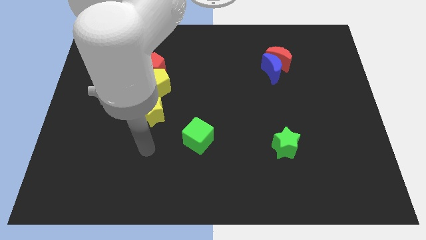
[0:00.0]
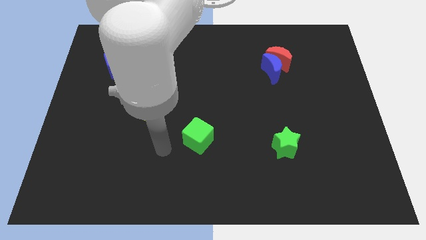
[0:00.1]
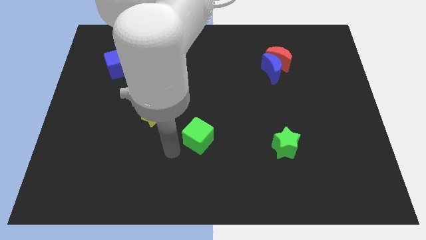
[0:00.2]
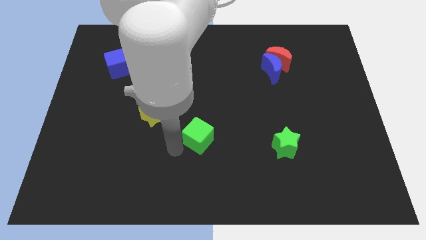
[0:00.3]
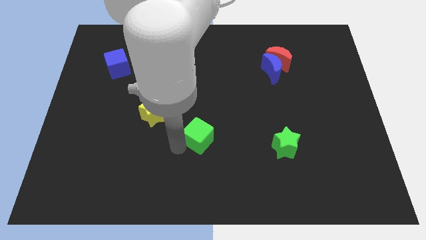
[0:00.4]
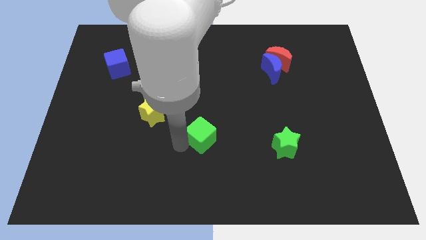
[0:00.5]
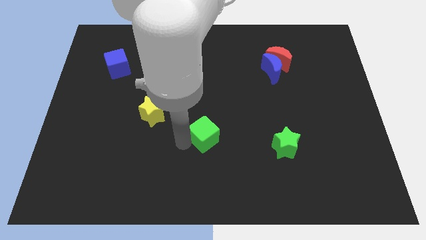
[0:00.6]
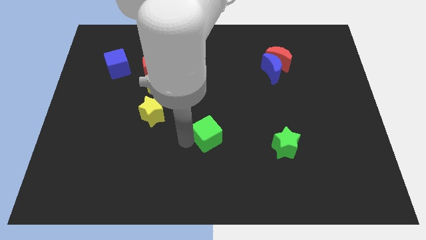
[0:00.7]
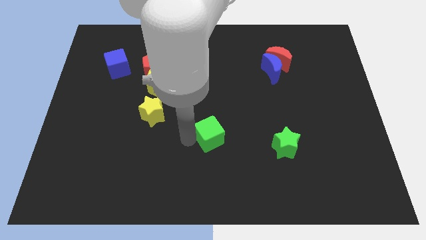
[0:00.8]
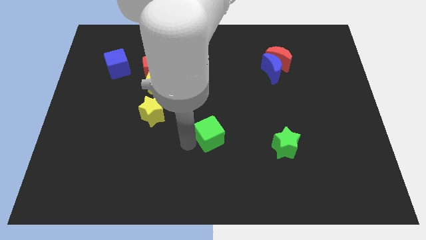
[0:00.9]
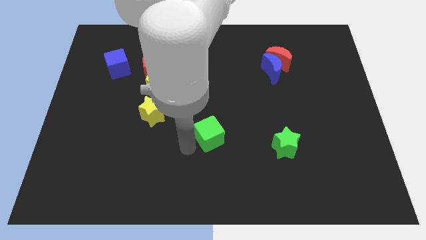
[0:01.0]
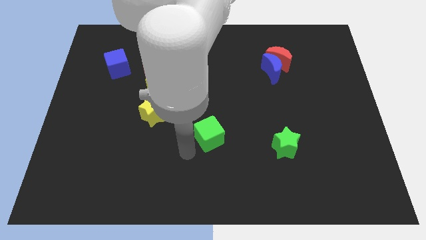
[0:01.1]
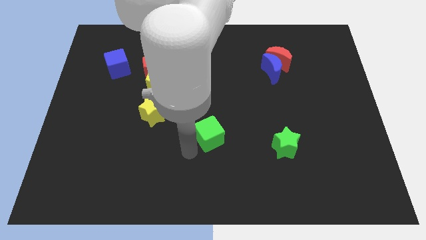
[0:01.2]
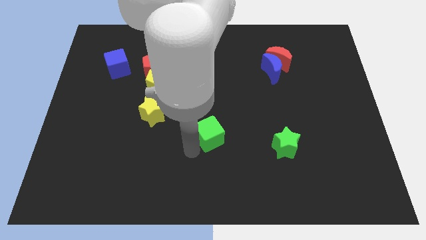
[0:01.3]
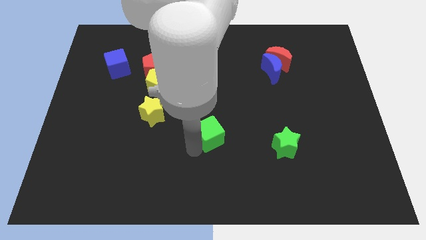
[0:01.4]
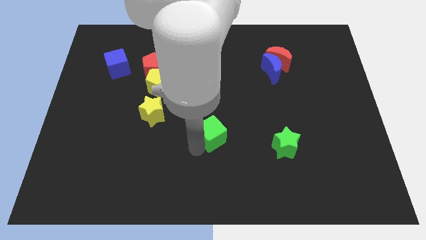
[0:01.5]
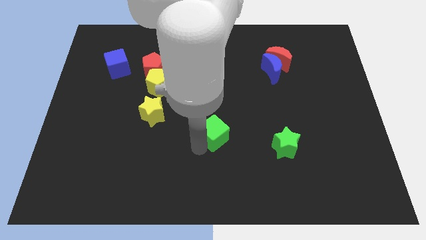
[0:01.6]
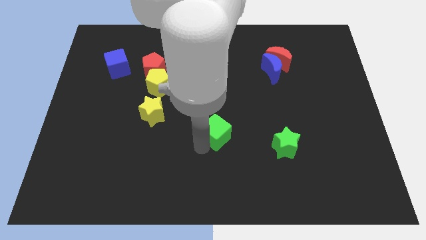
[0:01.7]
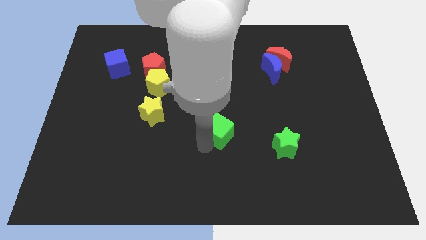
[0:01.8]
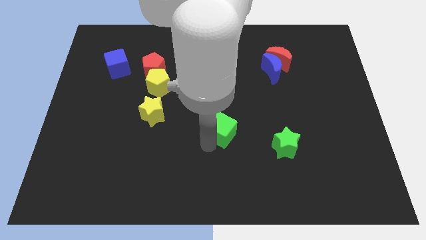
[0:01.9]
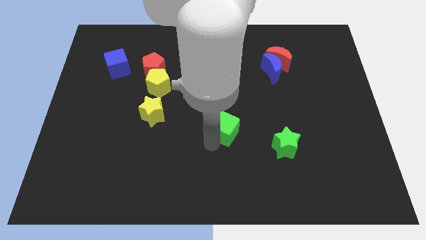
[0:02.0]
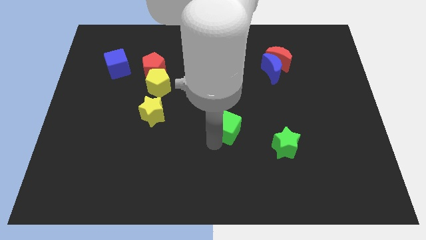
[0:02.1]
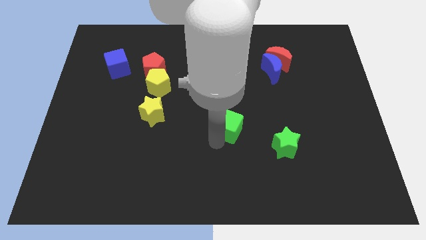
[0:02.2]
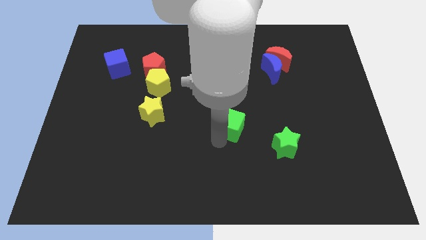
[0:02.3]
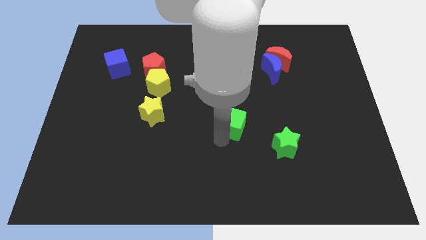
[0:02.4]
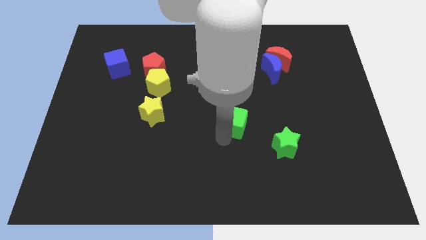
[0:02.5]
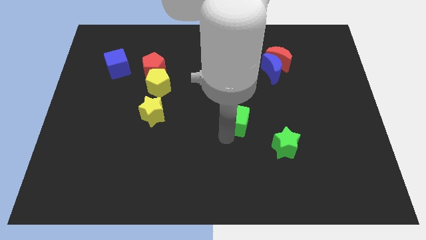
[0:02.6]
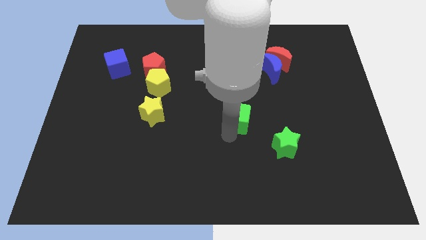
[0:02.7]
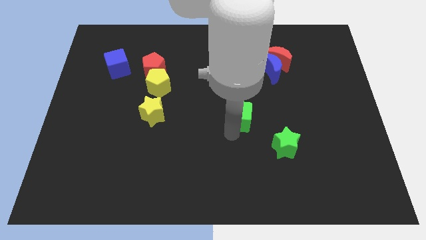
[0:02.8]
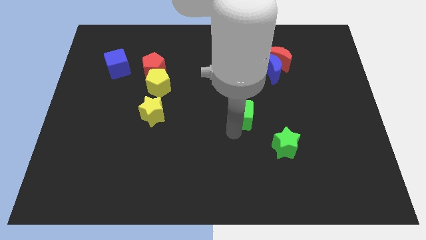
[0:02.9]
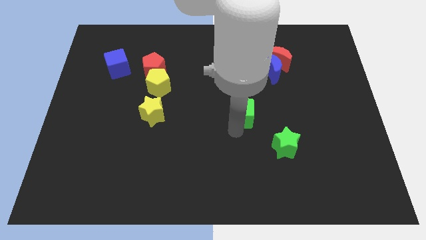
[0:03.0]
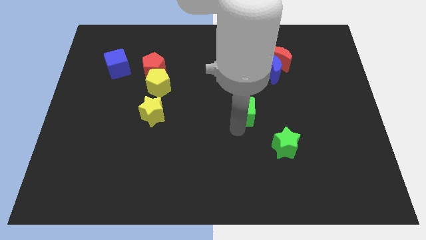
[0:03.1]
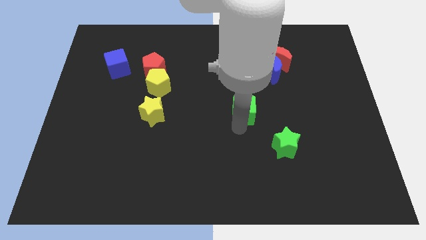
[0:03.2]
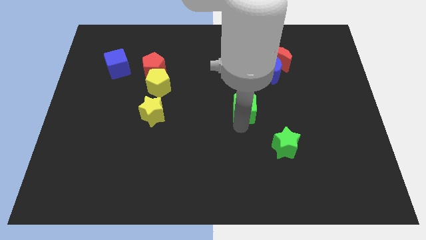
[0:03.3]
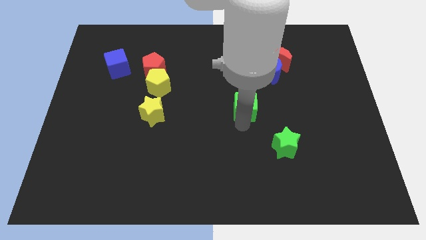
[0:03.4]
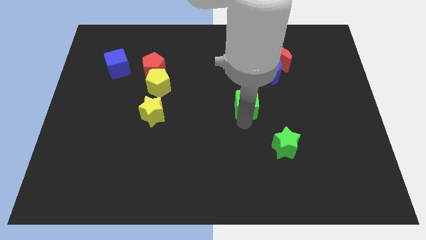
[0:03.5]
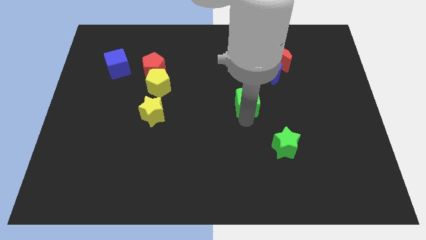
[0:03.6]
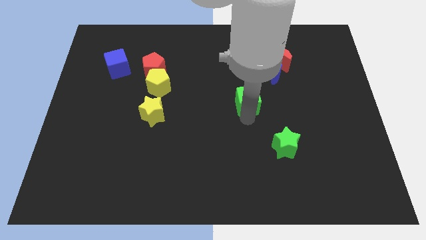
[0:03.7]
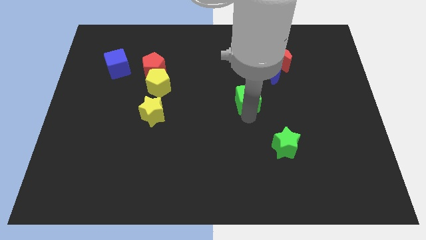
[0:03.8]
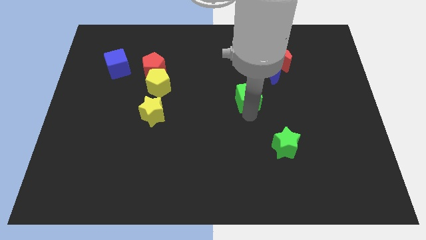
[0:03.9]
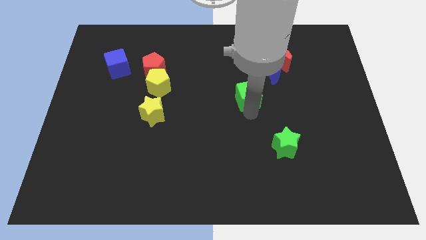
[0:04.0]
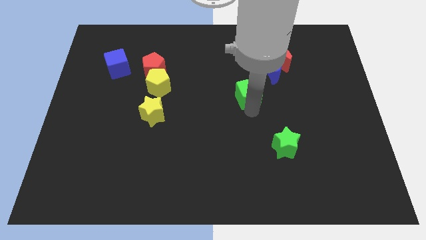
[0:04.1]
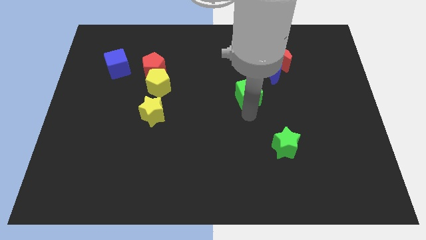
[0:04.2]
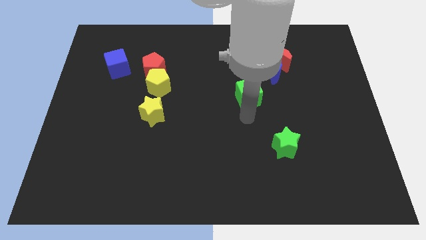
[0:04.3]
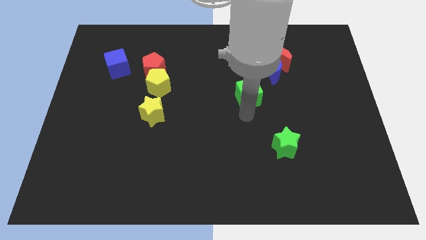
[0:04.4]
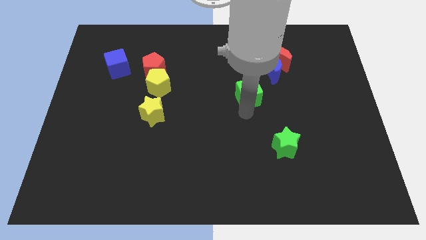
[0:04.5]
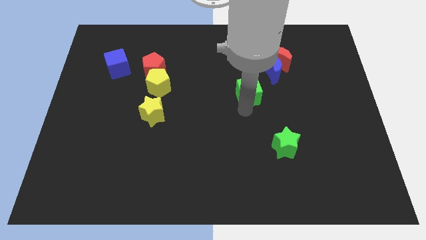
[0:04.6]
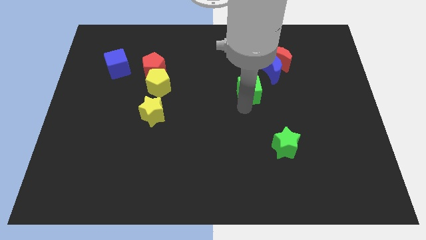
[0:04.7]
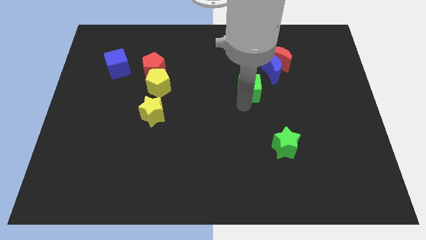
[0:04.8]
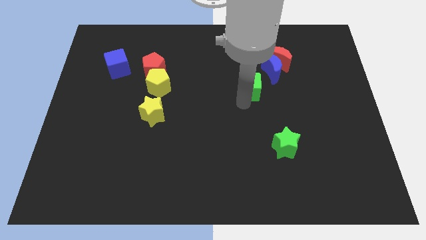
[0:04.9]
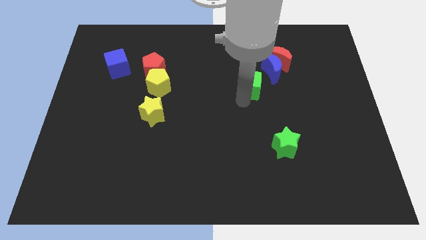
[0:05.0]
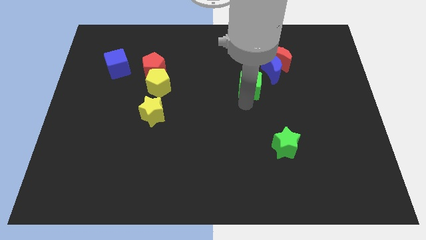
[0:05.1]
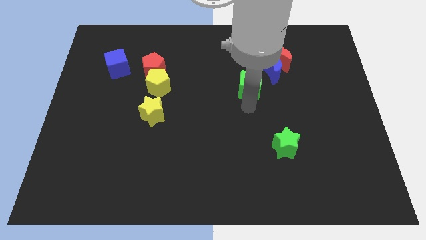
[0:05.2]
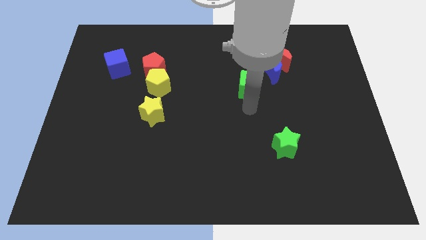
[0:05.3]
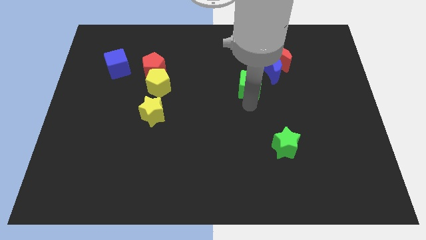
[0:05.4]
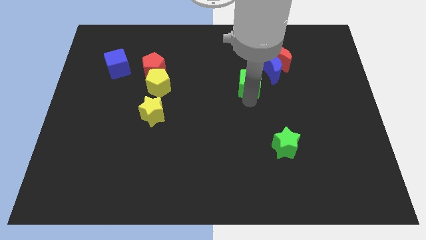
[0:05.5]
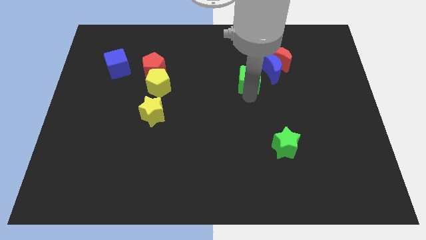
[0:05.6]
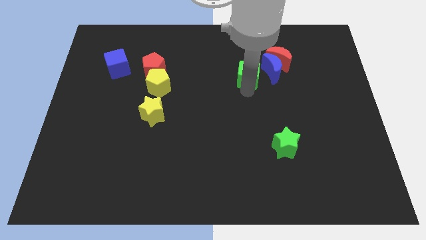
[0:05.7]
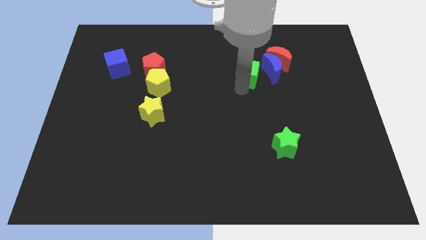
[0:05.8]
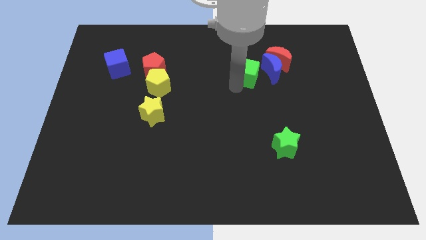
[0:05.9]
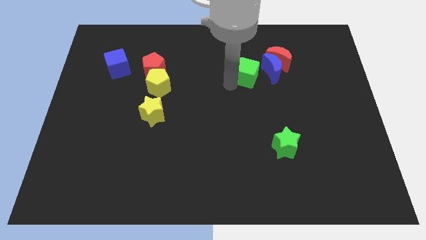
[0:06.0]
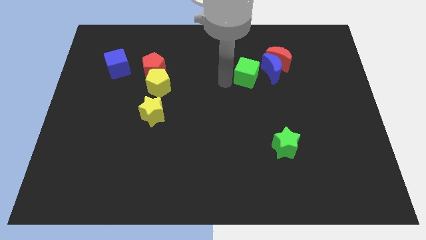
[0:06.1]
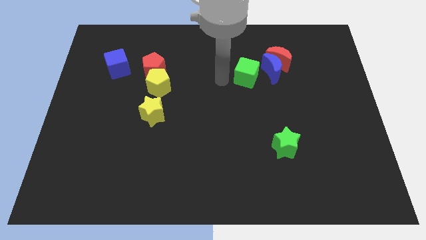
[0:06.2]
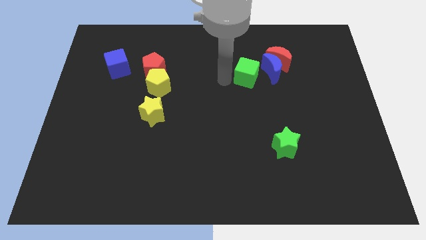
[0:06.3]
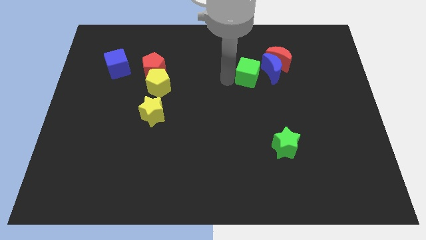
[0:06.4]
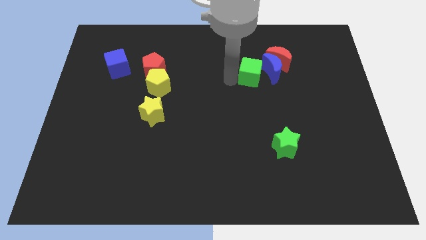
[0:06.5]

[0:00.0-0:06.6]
push the green cube towards the blue moon
